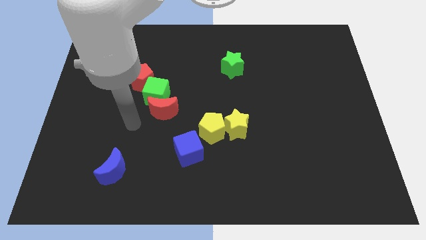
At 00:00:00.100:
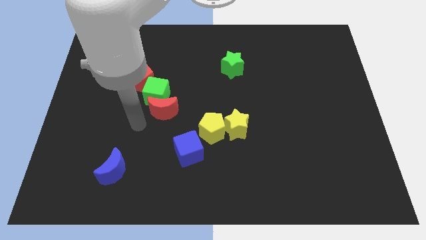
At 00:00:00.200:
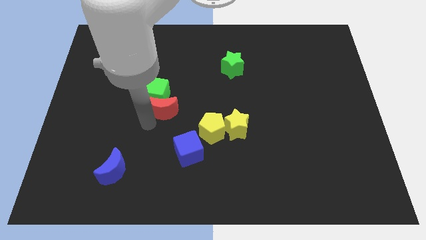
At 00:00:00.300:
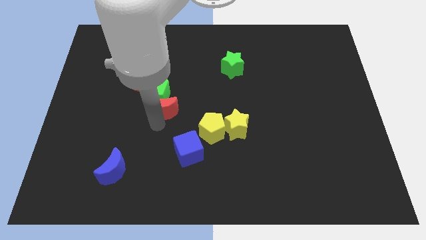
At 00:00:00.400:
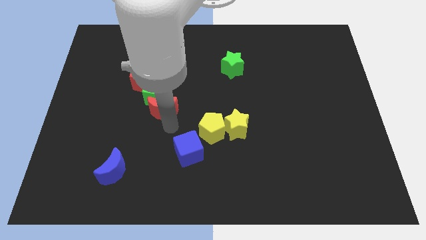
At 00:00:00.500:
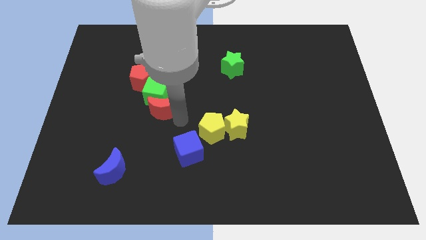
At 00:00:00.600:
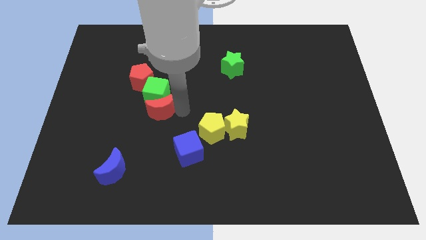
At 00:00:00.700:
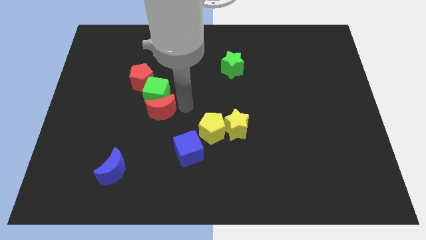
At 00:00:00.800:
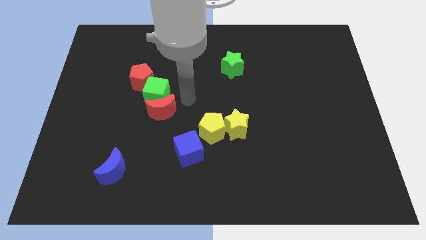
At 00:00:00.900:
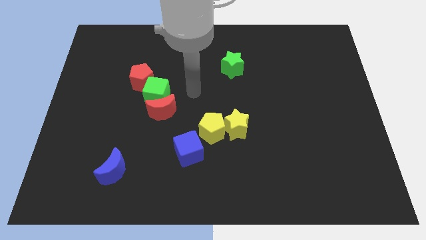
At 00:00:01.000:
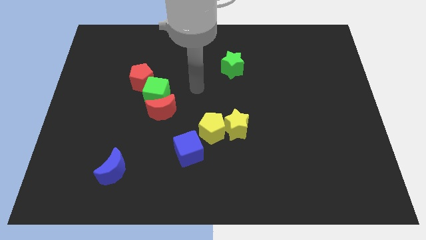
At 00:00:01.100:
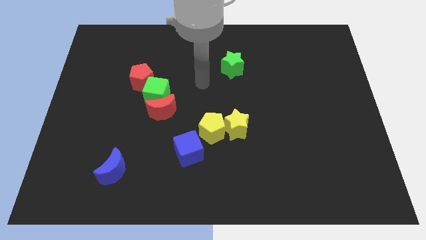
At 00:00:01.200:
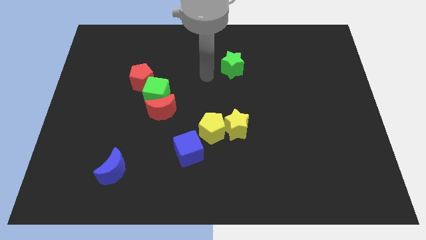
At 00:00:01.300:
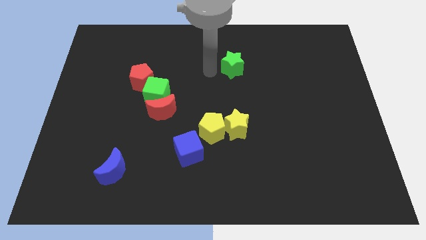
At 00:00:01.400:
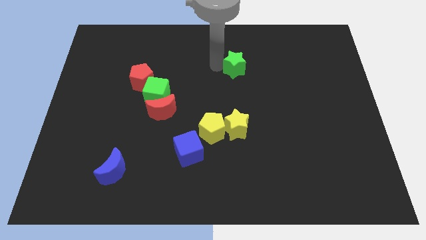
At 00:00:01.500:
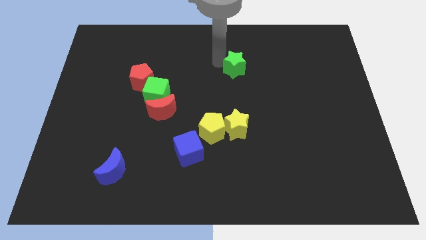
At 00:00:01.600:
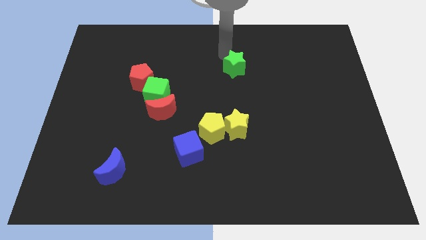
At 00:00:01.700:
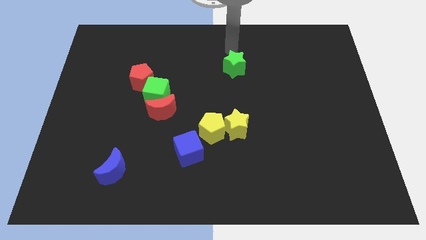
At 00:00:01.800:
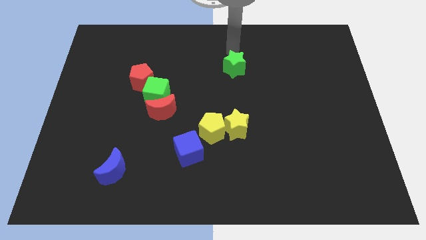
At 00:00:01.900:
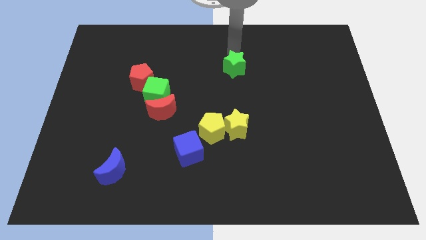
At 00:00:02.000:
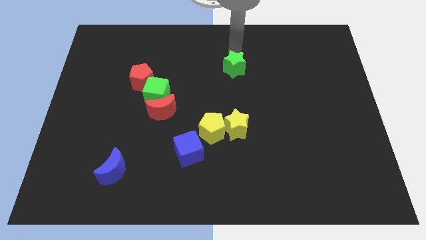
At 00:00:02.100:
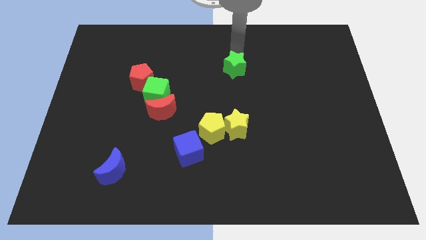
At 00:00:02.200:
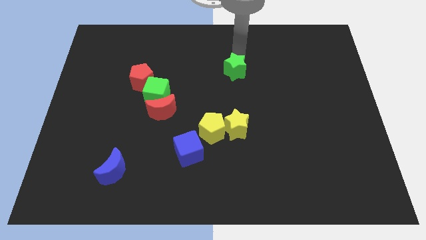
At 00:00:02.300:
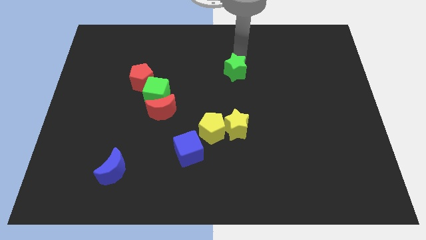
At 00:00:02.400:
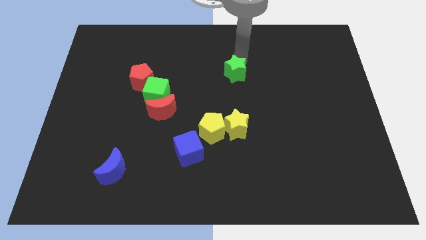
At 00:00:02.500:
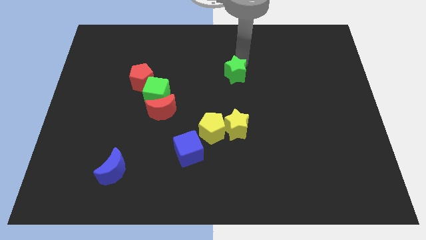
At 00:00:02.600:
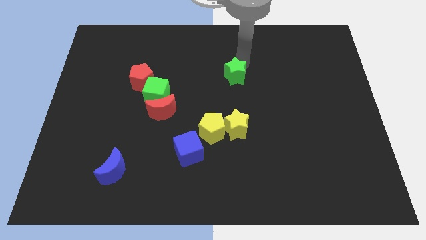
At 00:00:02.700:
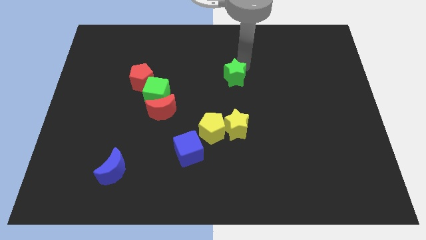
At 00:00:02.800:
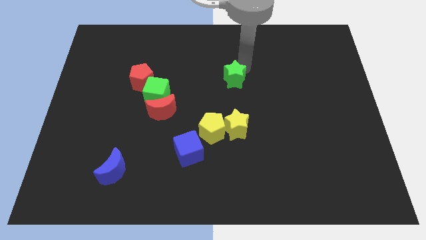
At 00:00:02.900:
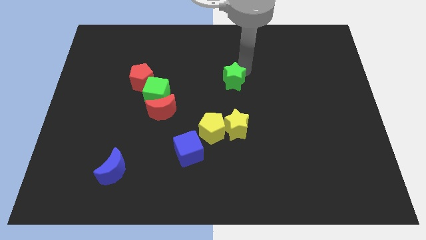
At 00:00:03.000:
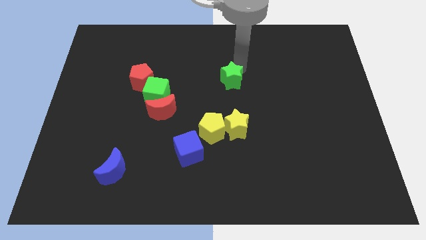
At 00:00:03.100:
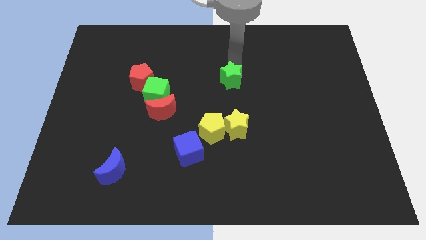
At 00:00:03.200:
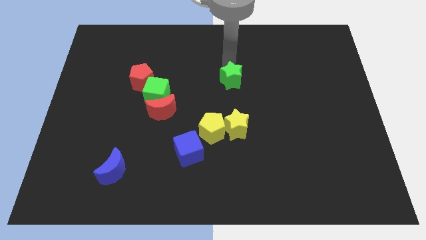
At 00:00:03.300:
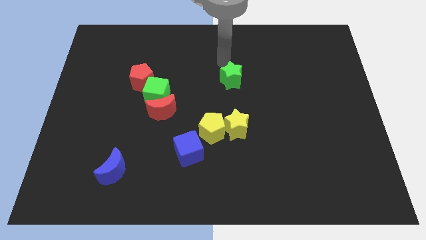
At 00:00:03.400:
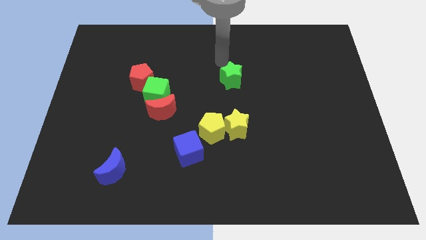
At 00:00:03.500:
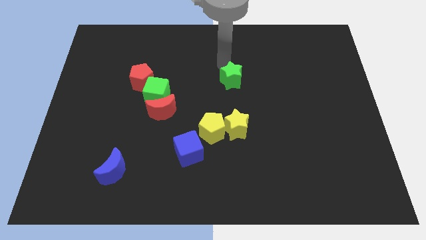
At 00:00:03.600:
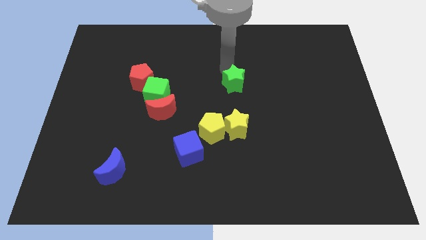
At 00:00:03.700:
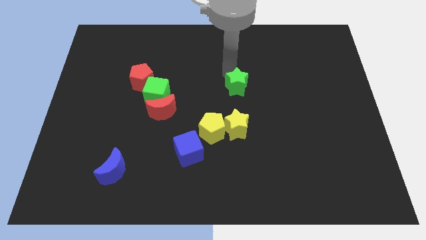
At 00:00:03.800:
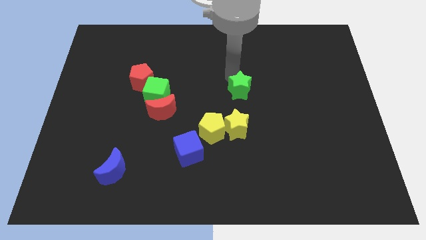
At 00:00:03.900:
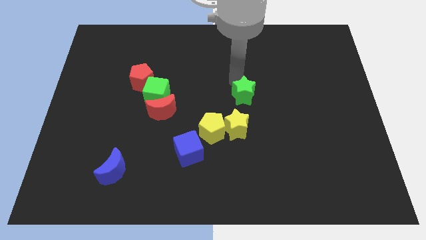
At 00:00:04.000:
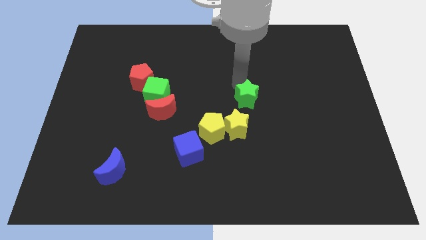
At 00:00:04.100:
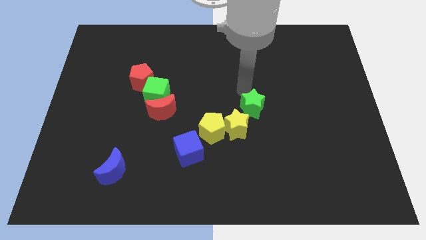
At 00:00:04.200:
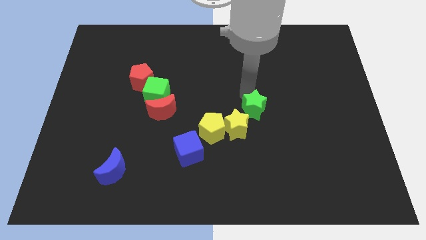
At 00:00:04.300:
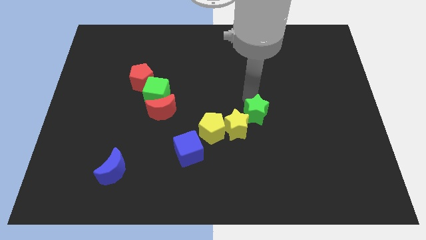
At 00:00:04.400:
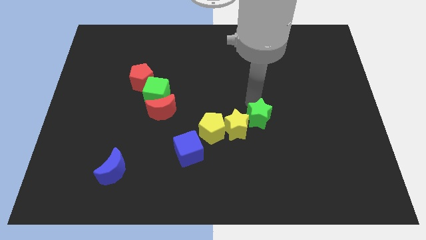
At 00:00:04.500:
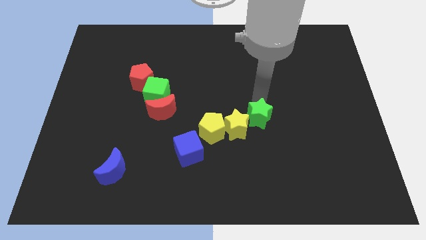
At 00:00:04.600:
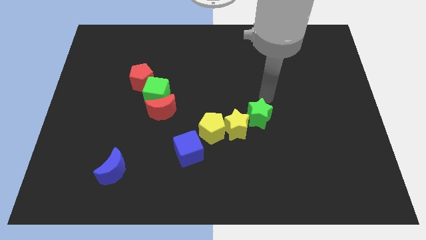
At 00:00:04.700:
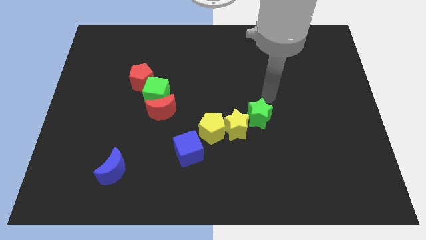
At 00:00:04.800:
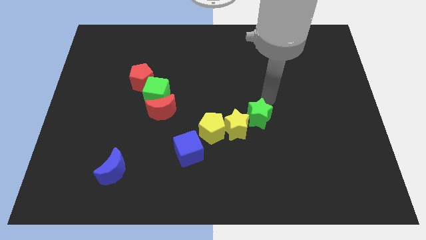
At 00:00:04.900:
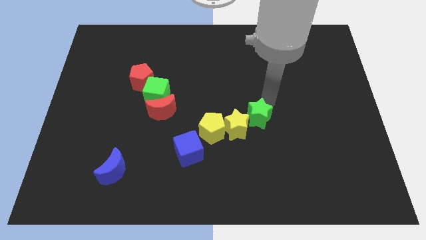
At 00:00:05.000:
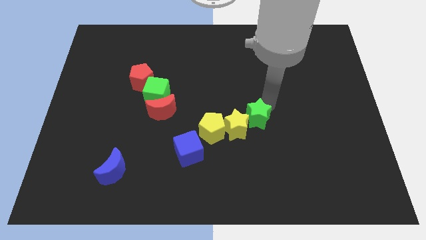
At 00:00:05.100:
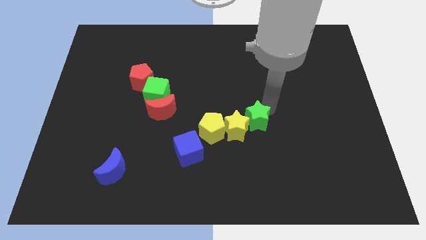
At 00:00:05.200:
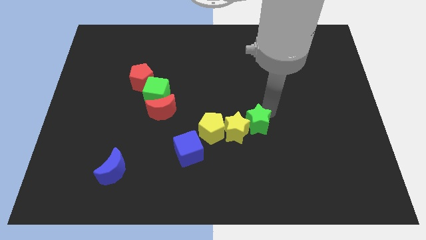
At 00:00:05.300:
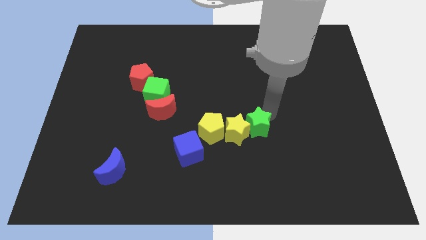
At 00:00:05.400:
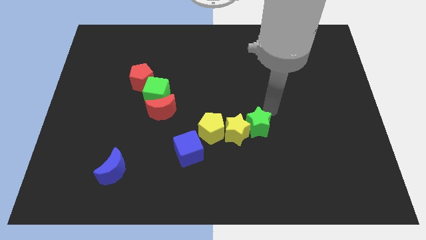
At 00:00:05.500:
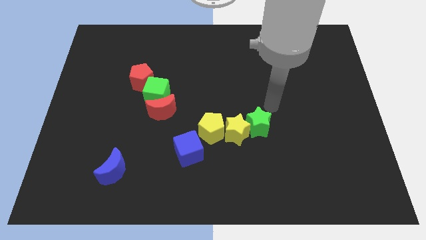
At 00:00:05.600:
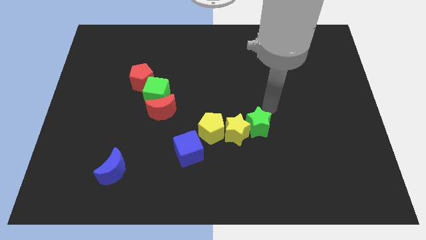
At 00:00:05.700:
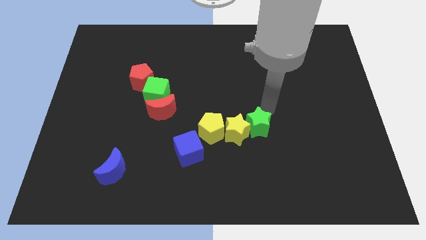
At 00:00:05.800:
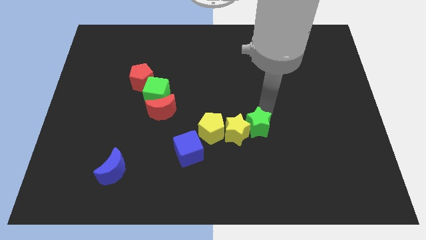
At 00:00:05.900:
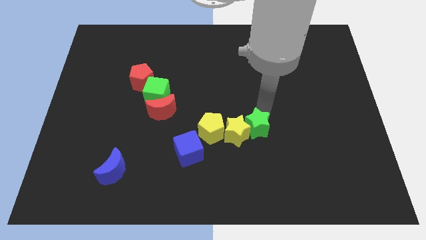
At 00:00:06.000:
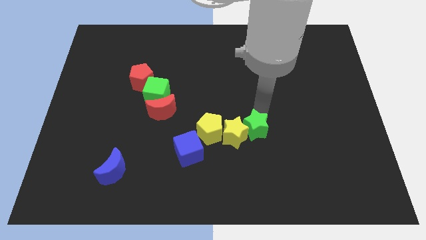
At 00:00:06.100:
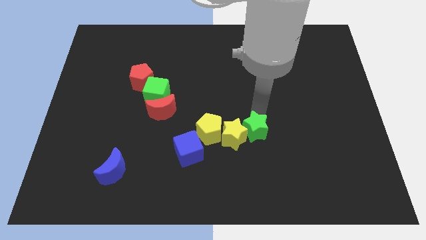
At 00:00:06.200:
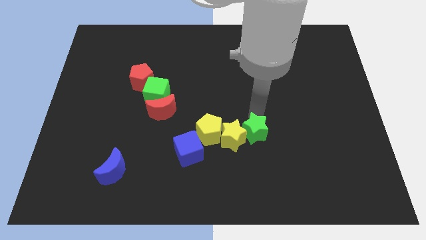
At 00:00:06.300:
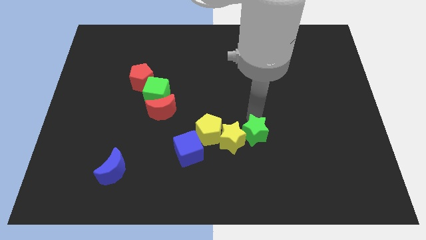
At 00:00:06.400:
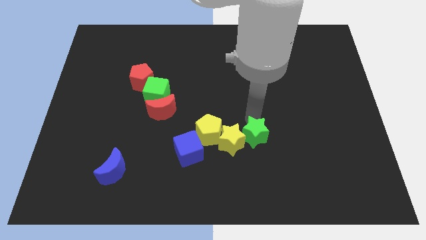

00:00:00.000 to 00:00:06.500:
move the green star downwards

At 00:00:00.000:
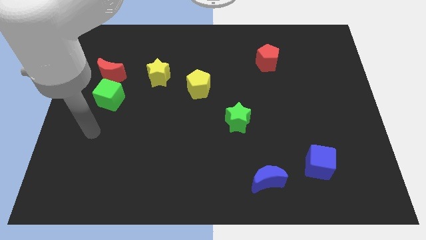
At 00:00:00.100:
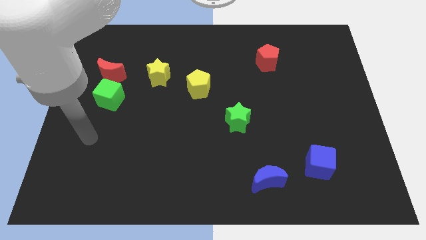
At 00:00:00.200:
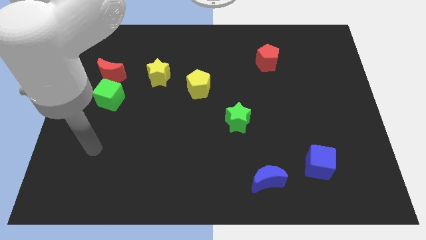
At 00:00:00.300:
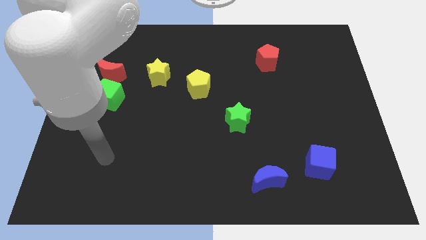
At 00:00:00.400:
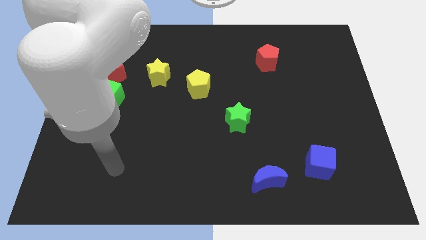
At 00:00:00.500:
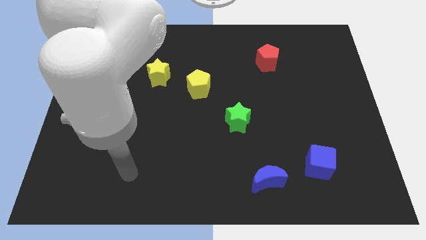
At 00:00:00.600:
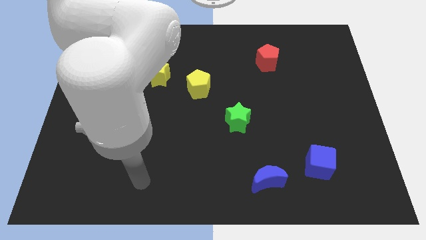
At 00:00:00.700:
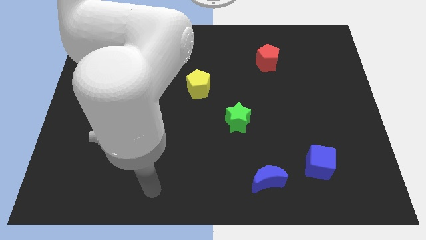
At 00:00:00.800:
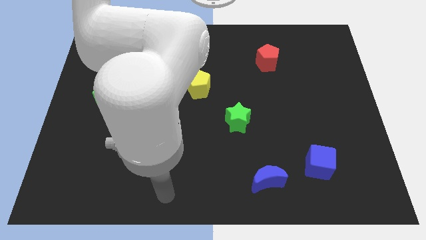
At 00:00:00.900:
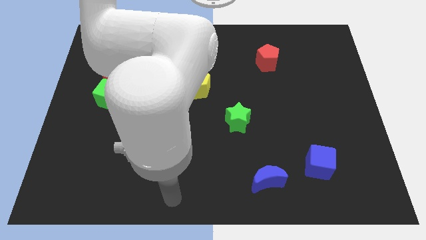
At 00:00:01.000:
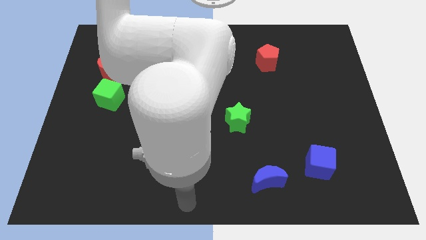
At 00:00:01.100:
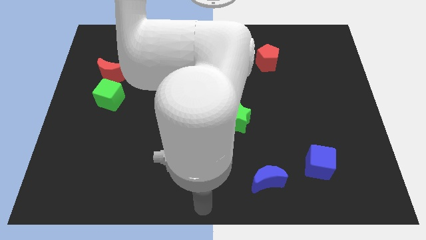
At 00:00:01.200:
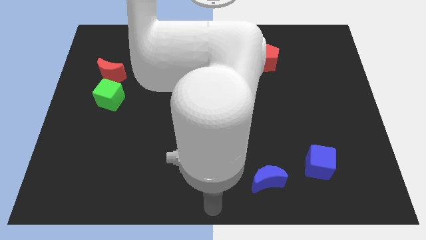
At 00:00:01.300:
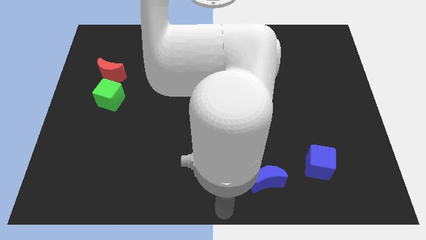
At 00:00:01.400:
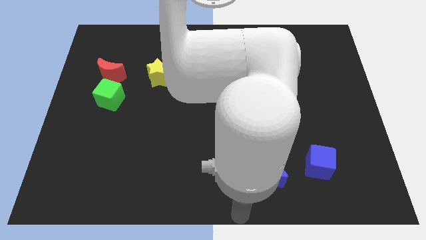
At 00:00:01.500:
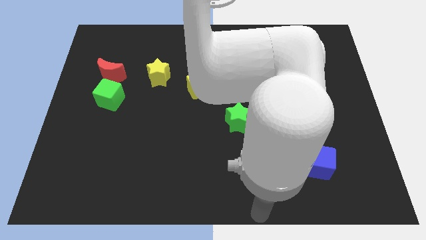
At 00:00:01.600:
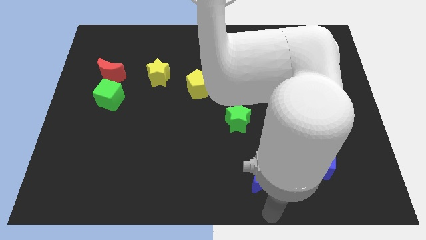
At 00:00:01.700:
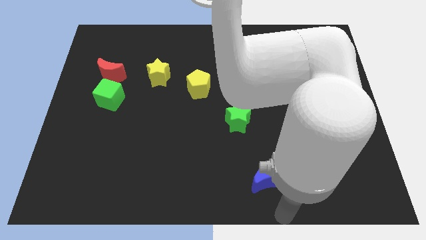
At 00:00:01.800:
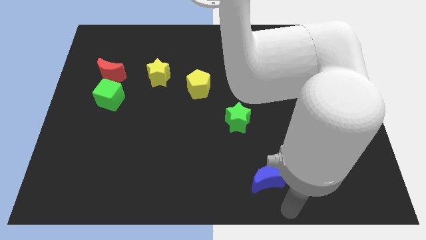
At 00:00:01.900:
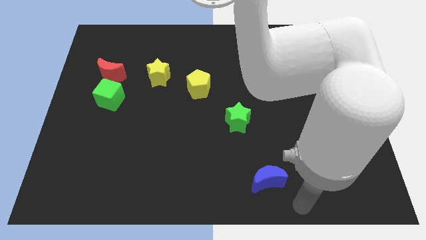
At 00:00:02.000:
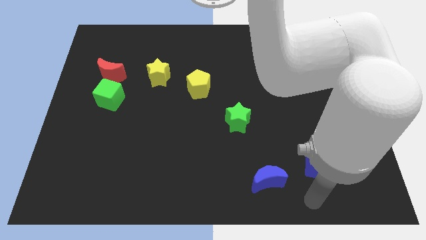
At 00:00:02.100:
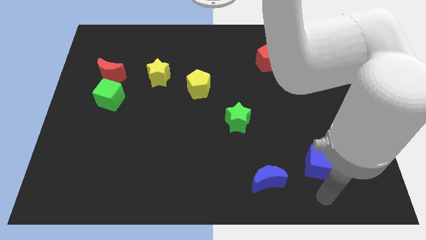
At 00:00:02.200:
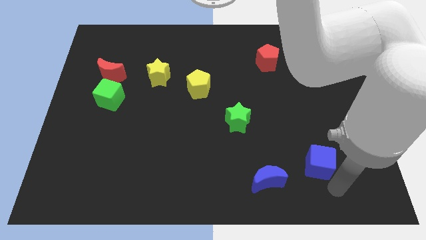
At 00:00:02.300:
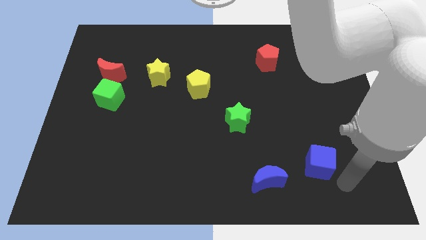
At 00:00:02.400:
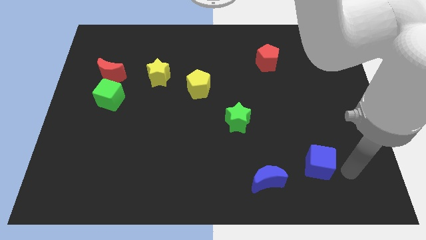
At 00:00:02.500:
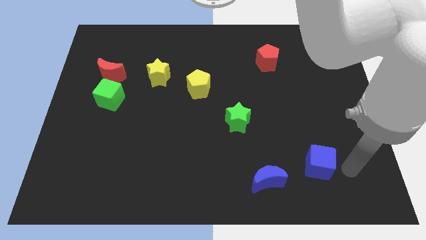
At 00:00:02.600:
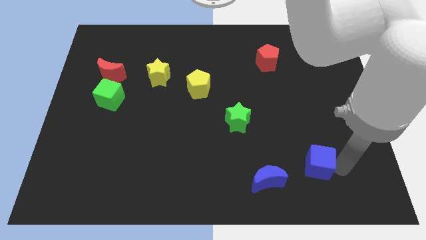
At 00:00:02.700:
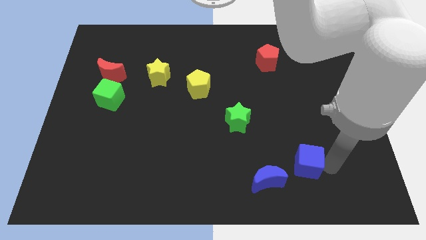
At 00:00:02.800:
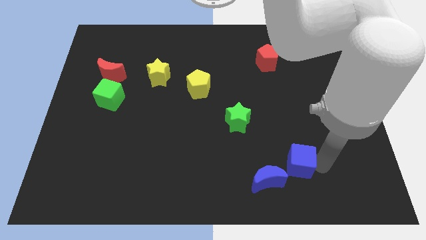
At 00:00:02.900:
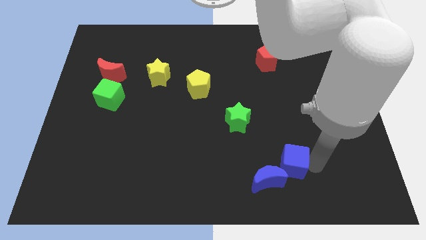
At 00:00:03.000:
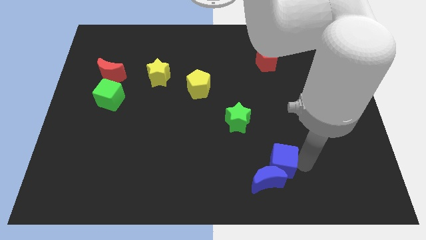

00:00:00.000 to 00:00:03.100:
slide the blue cube left a little
